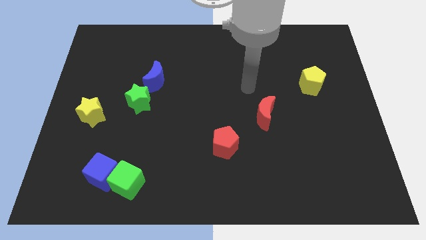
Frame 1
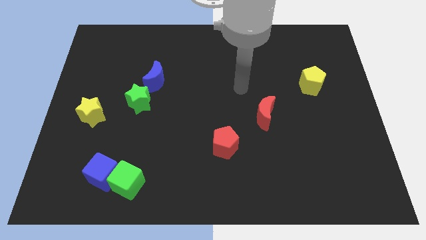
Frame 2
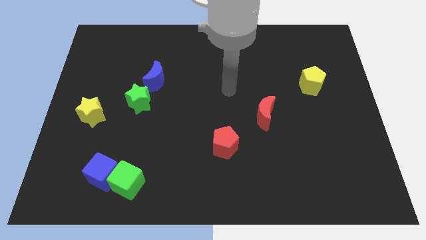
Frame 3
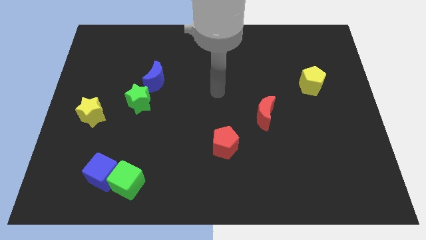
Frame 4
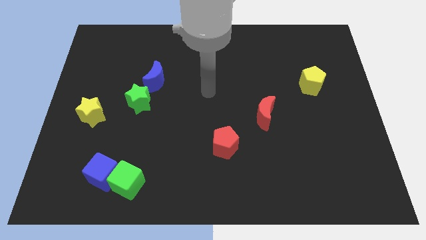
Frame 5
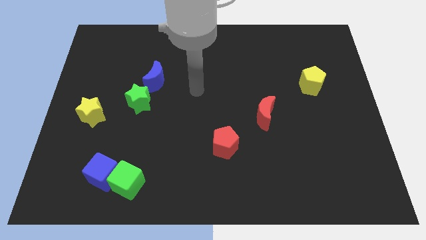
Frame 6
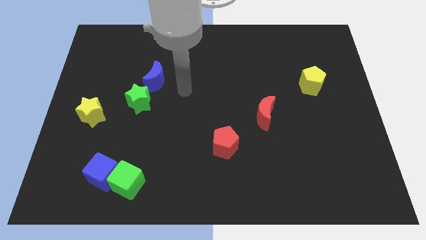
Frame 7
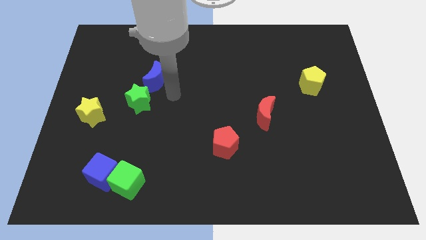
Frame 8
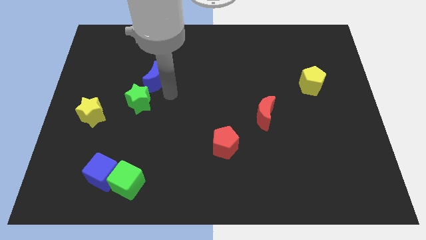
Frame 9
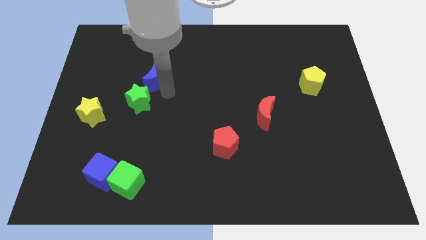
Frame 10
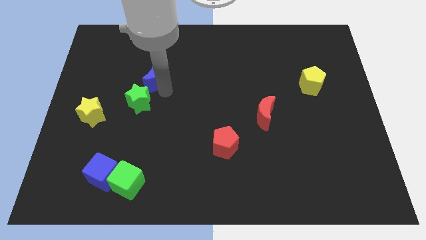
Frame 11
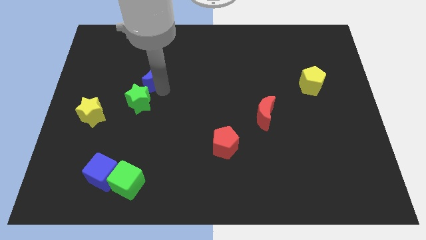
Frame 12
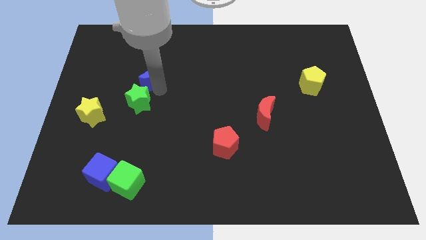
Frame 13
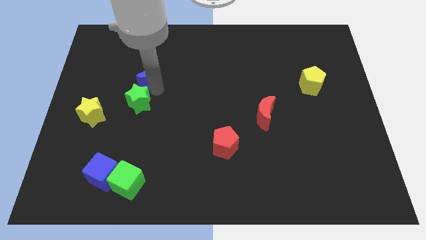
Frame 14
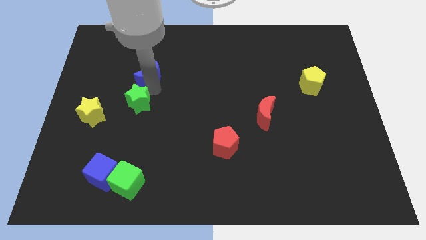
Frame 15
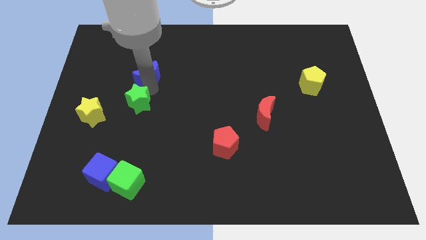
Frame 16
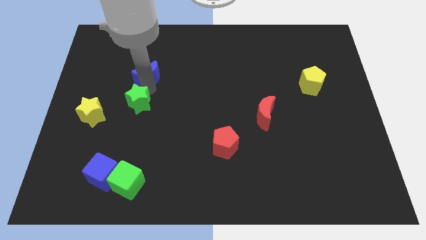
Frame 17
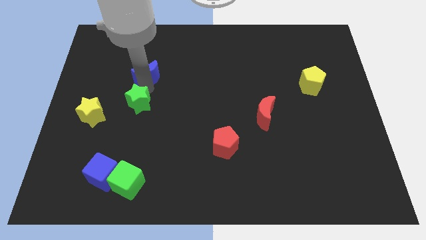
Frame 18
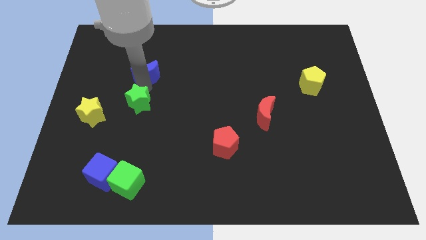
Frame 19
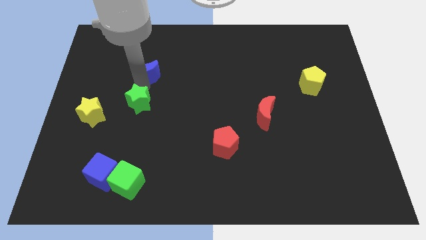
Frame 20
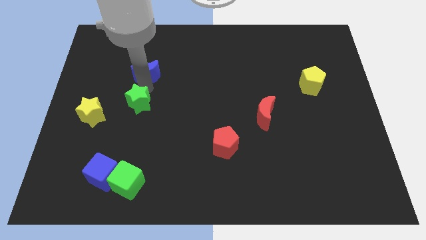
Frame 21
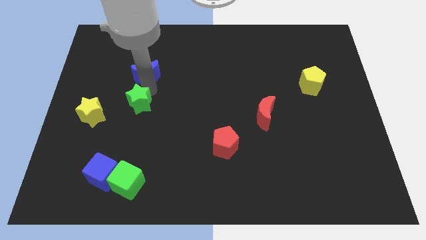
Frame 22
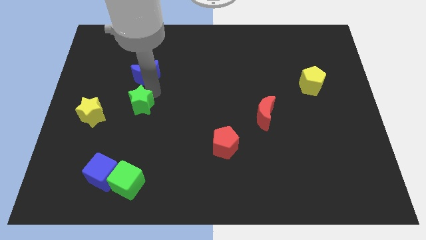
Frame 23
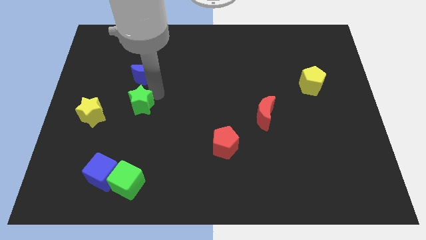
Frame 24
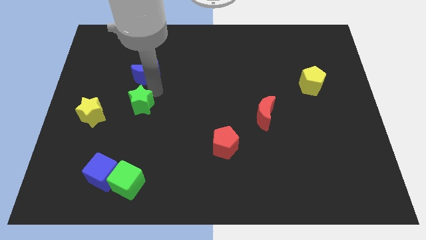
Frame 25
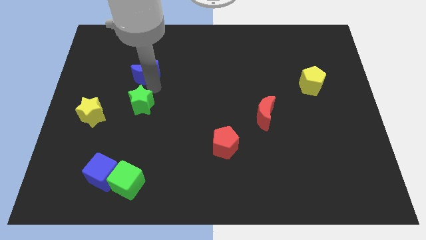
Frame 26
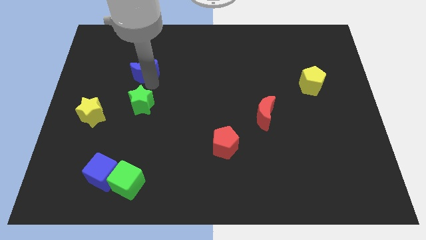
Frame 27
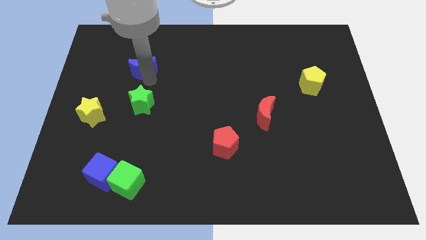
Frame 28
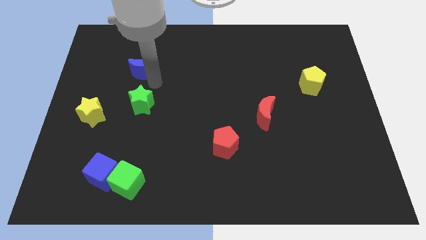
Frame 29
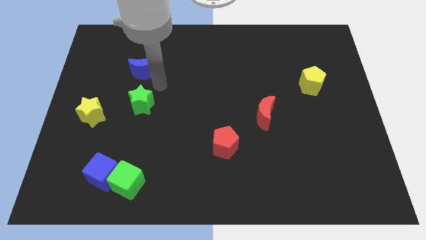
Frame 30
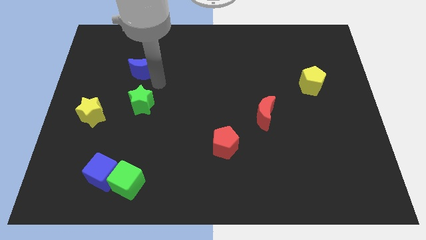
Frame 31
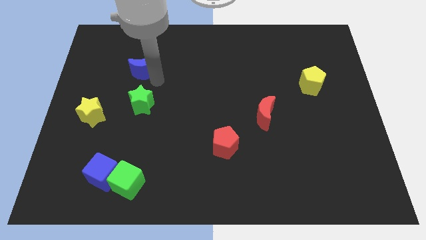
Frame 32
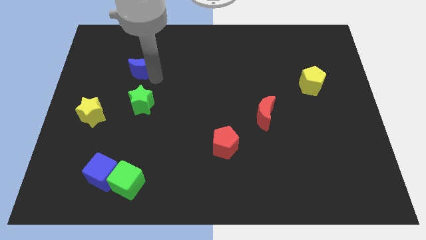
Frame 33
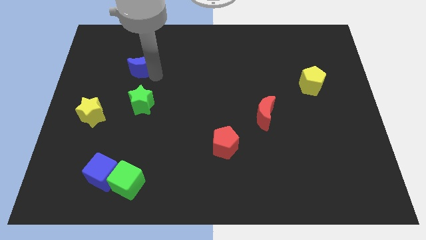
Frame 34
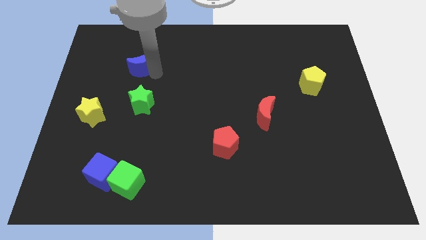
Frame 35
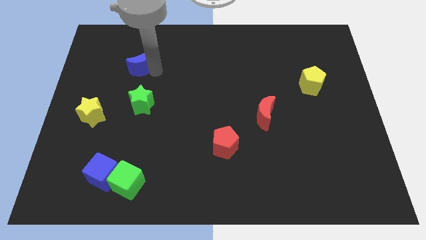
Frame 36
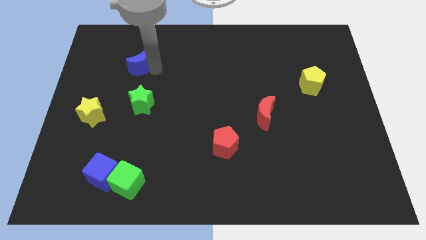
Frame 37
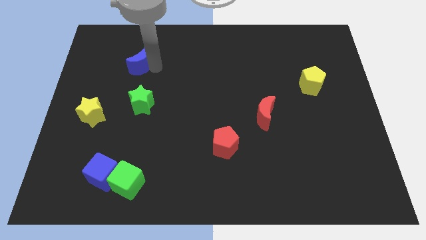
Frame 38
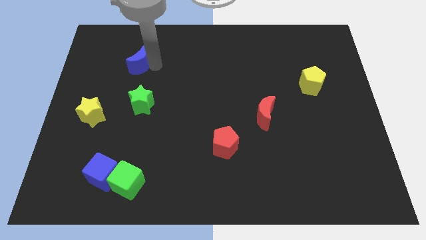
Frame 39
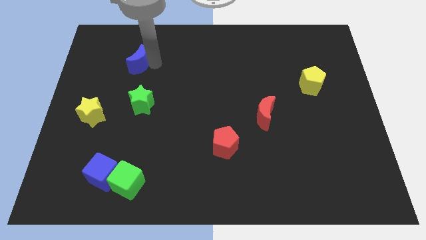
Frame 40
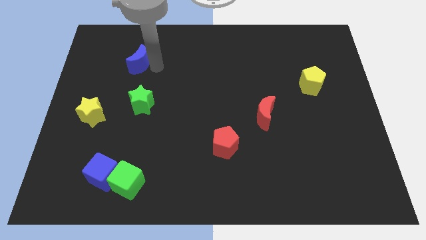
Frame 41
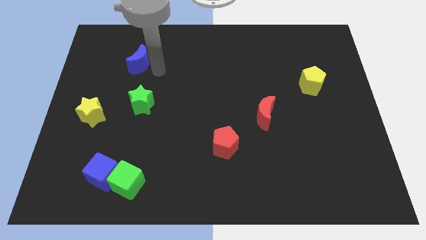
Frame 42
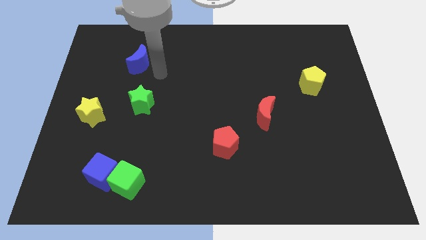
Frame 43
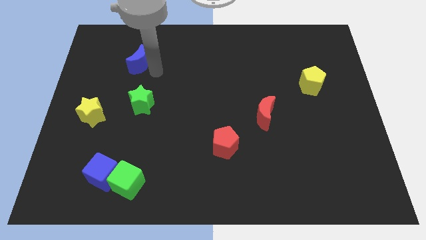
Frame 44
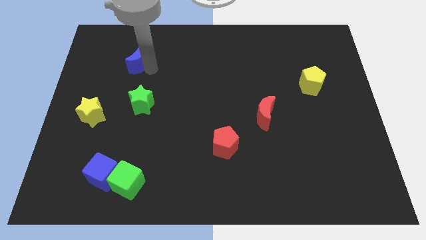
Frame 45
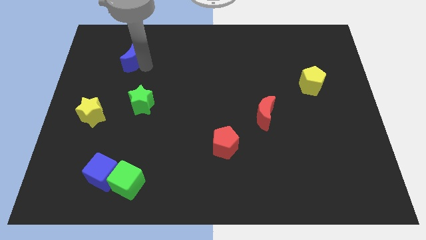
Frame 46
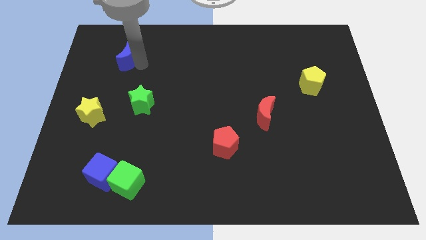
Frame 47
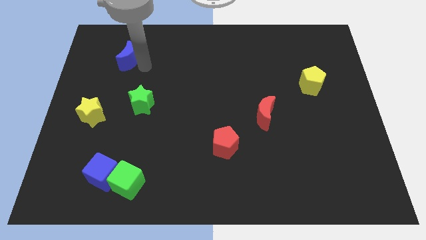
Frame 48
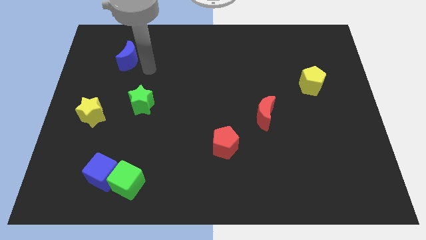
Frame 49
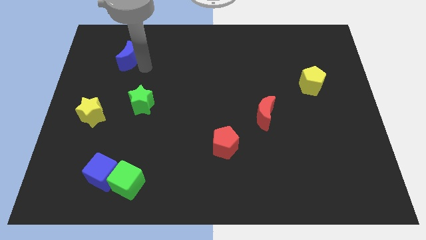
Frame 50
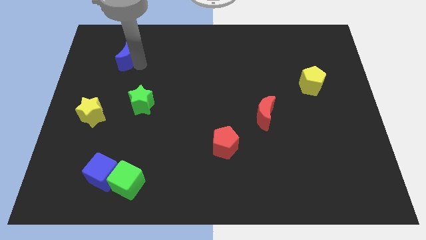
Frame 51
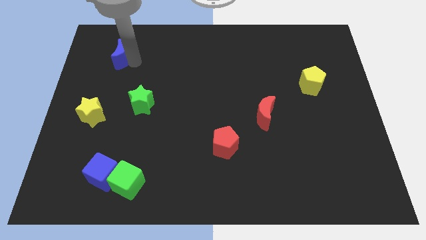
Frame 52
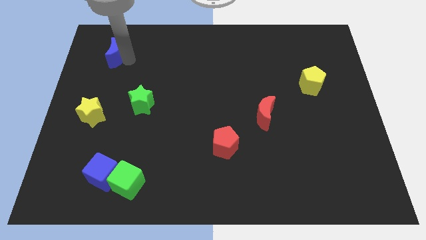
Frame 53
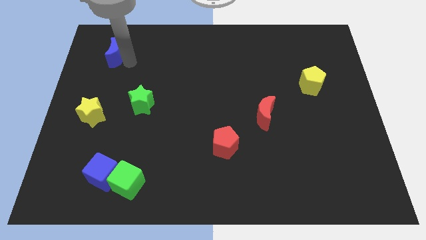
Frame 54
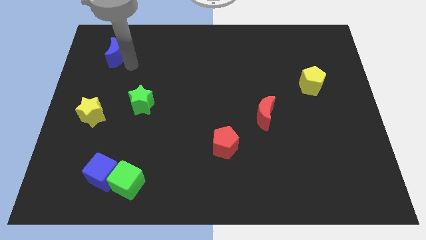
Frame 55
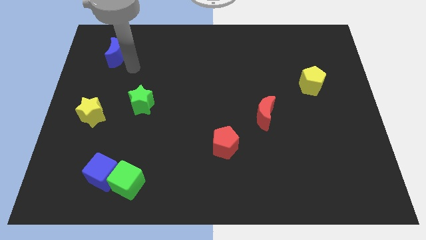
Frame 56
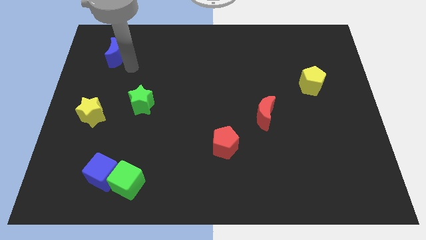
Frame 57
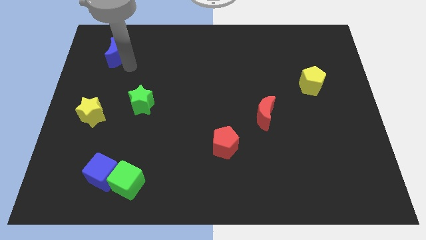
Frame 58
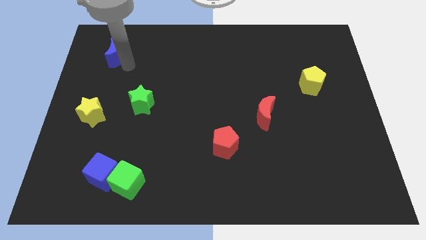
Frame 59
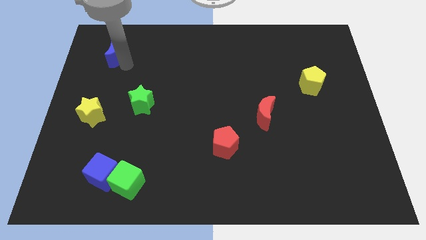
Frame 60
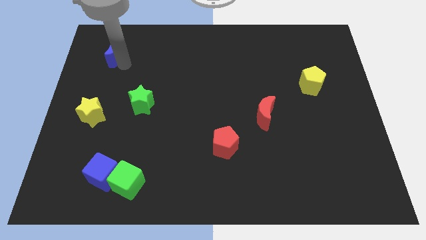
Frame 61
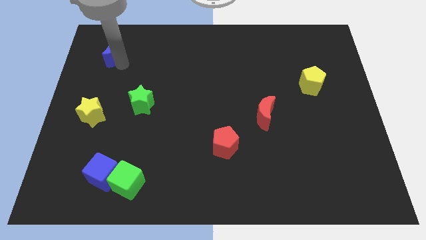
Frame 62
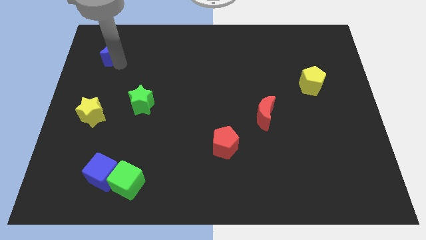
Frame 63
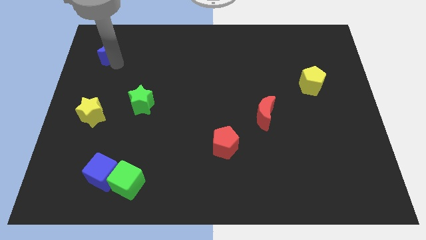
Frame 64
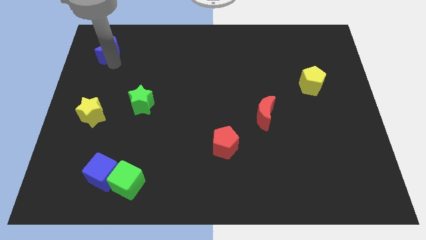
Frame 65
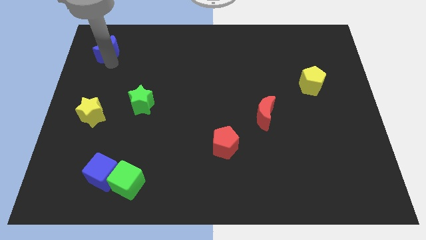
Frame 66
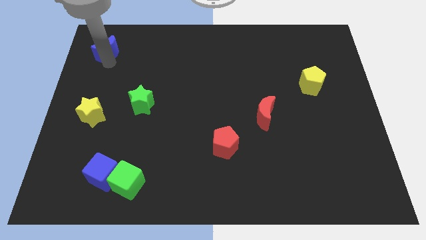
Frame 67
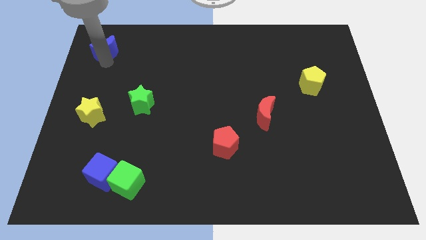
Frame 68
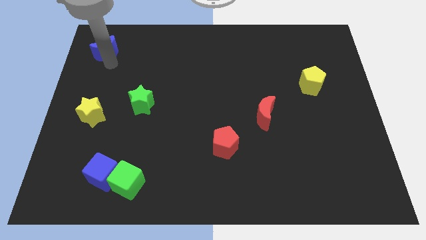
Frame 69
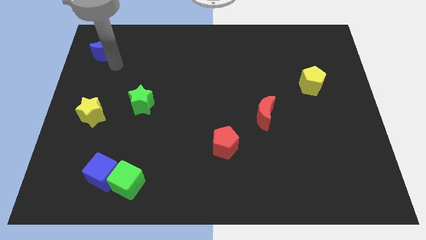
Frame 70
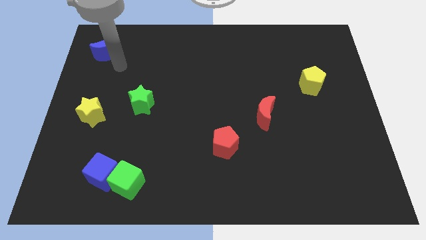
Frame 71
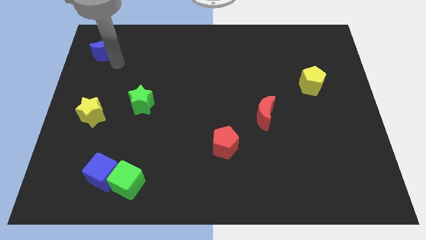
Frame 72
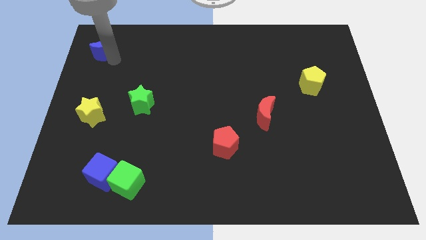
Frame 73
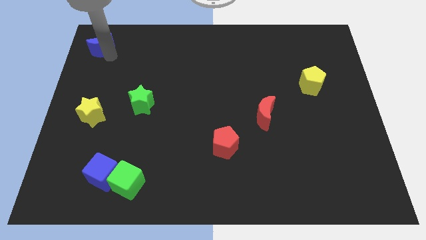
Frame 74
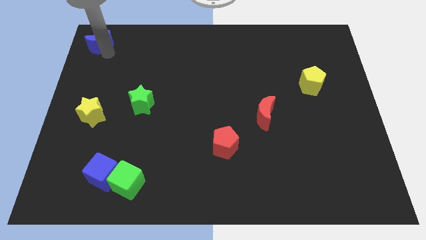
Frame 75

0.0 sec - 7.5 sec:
slide the blue moon to the top left corner
